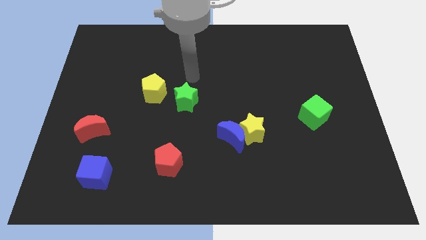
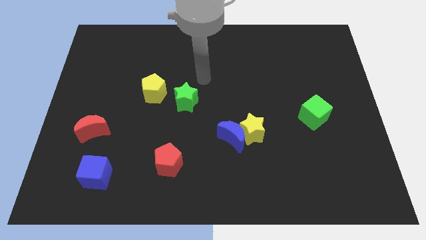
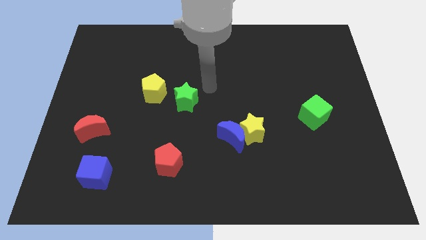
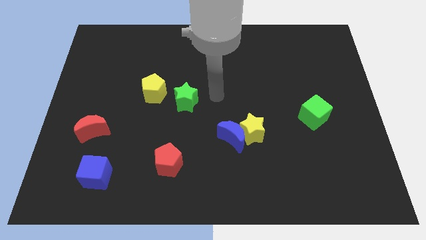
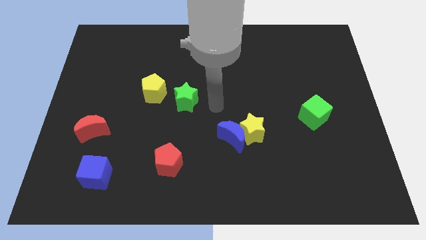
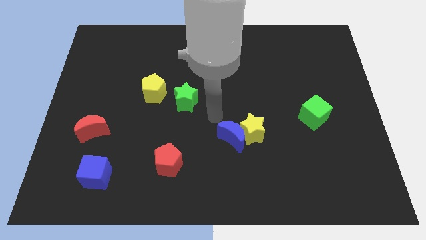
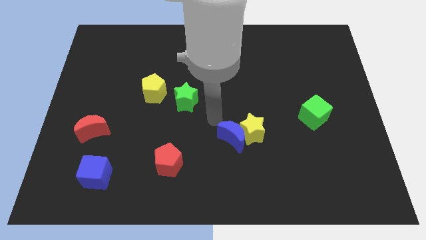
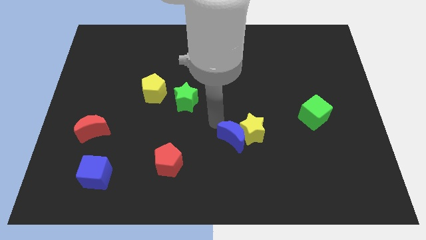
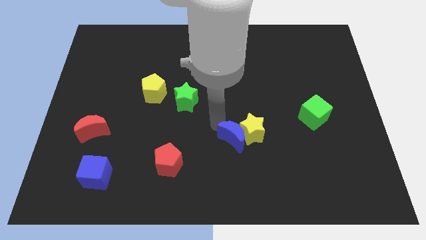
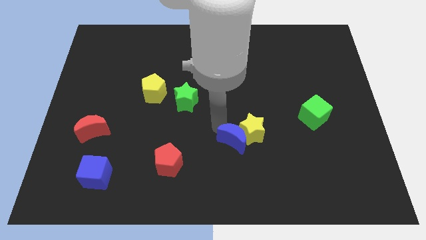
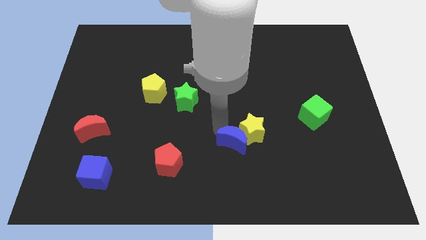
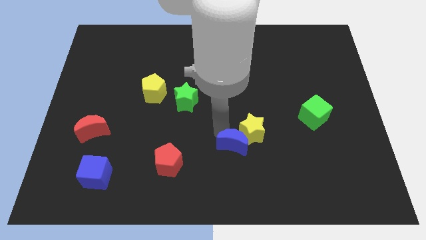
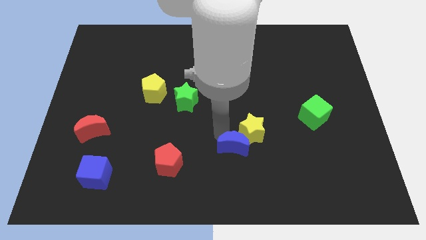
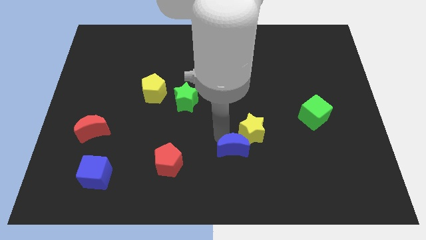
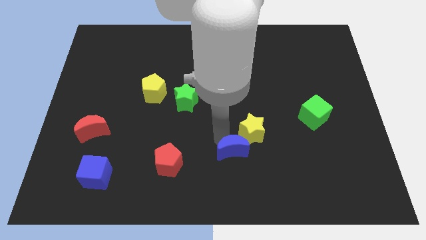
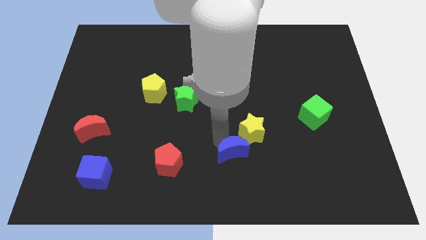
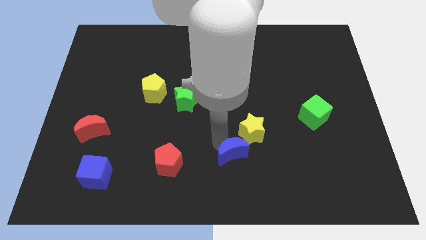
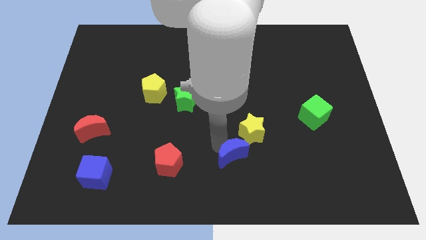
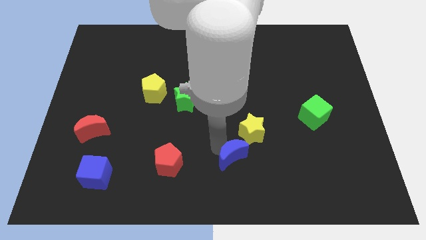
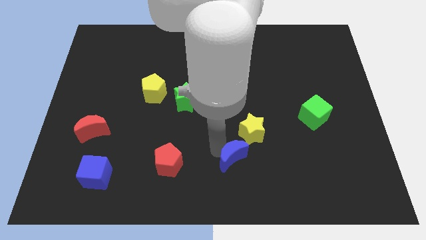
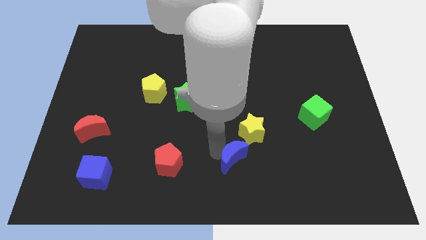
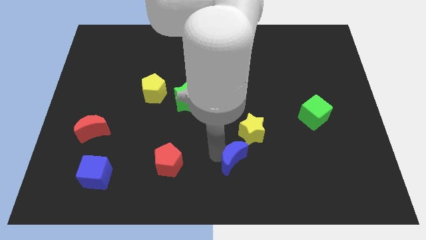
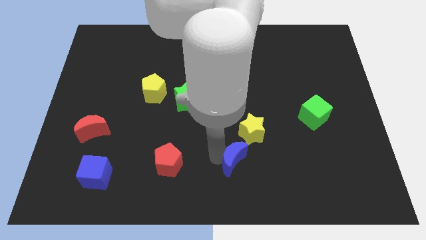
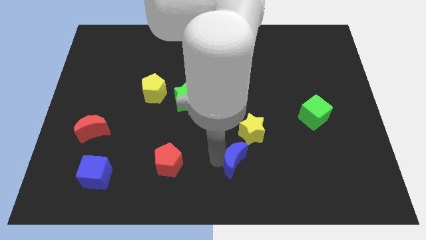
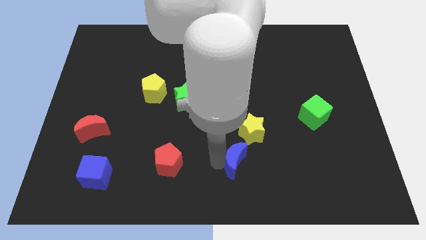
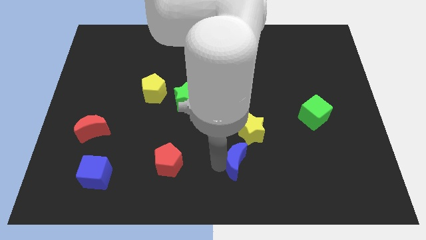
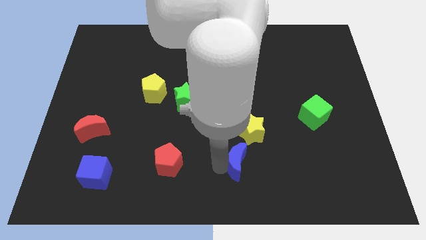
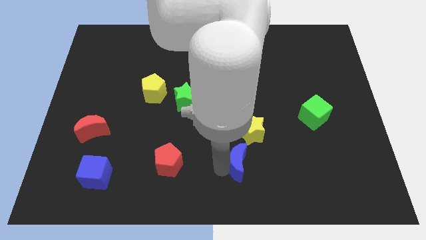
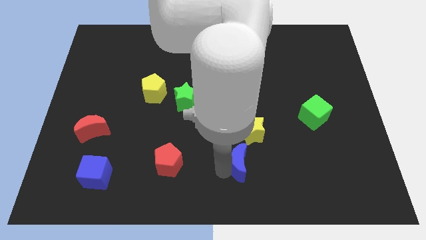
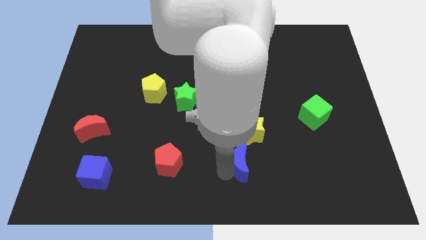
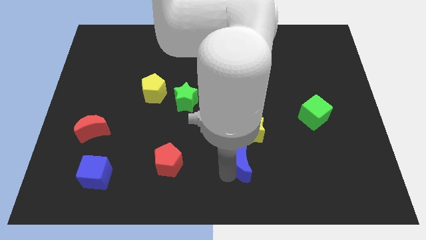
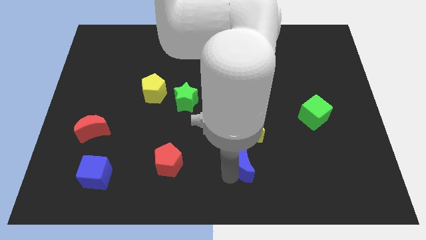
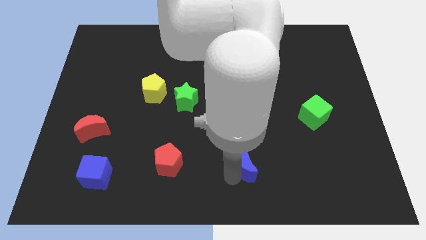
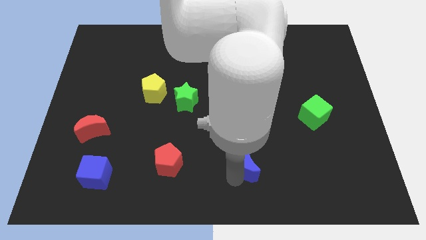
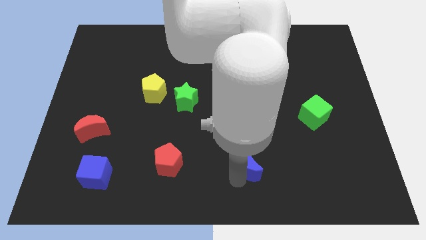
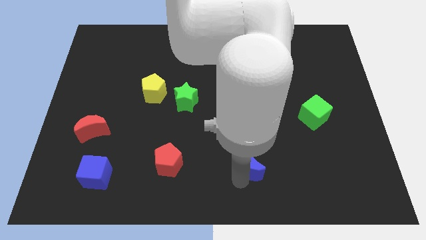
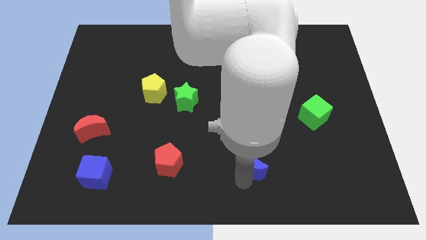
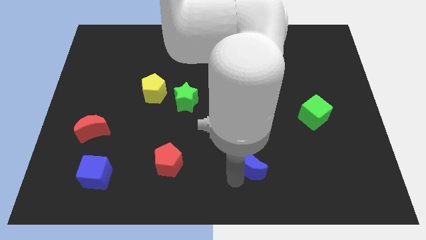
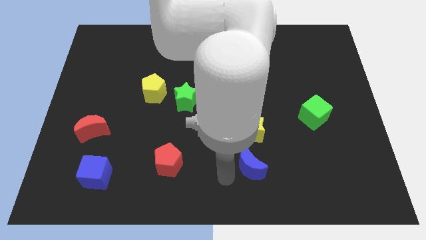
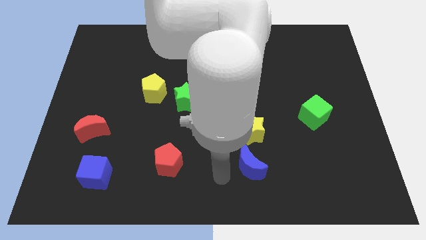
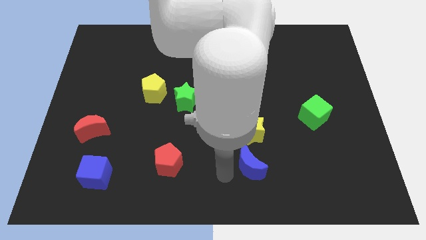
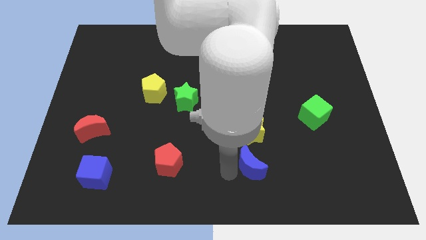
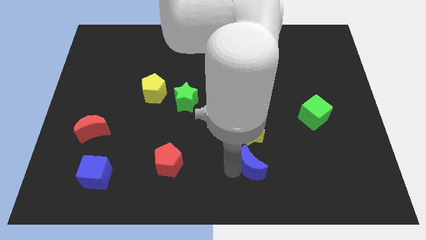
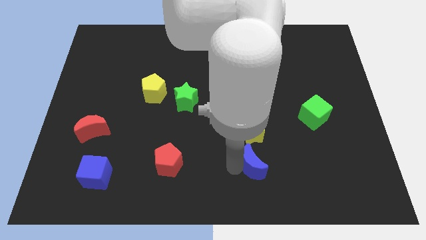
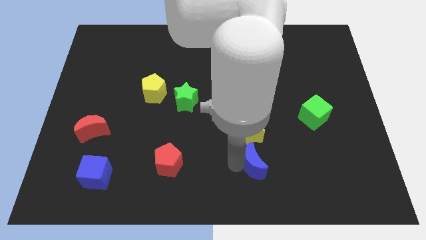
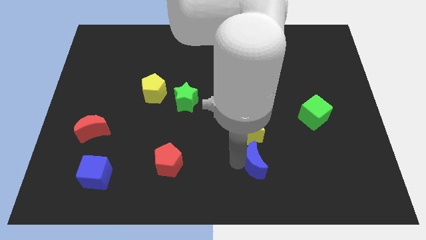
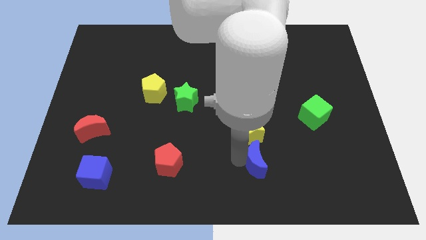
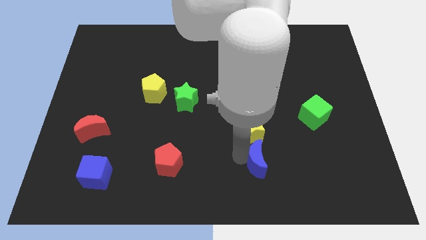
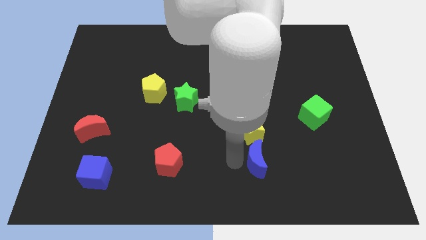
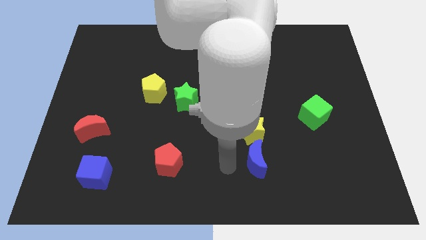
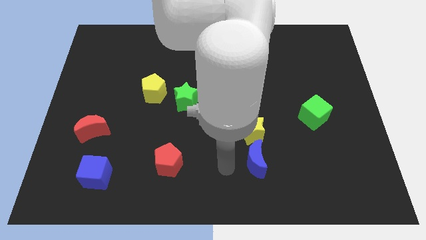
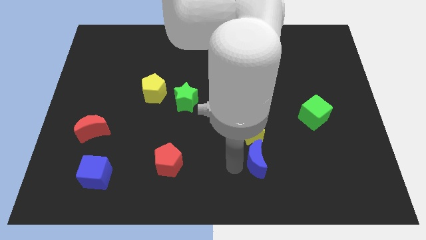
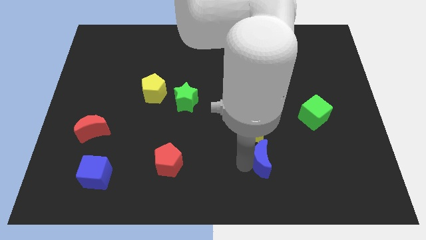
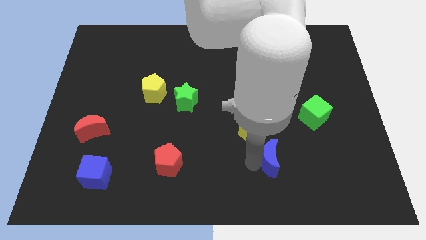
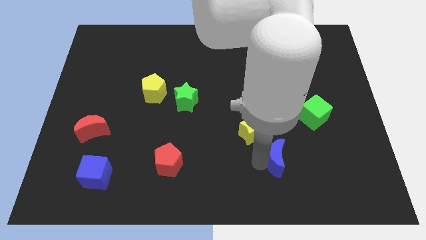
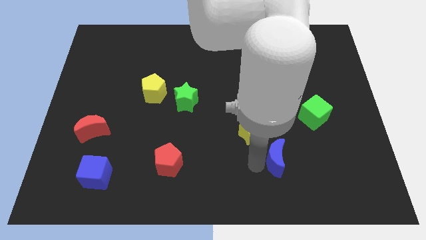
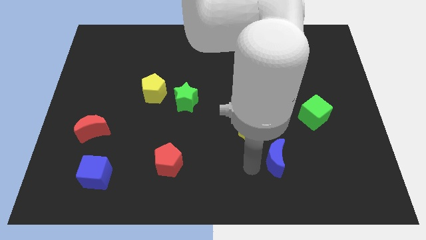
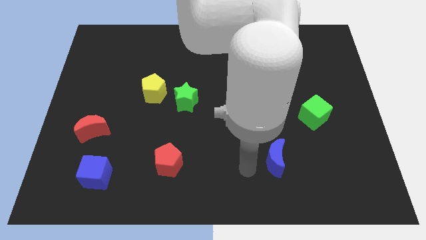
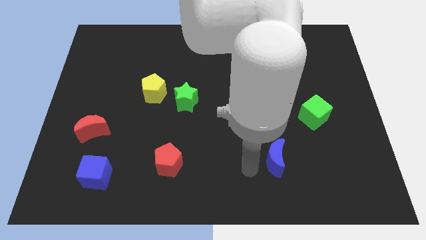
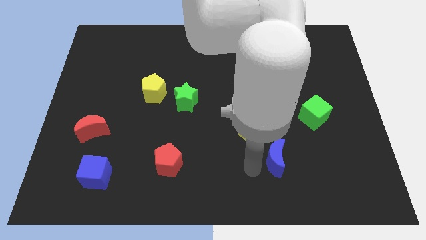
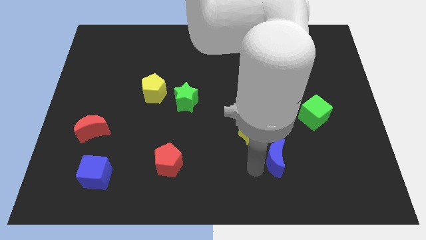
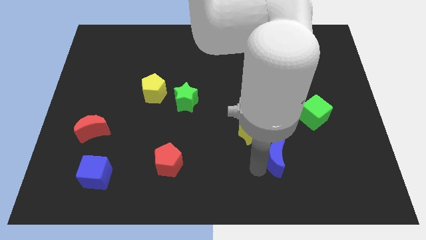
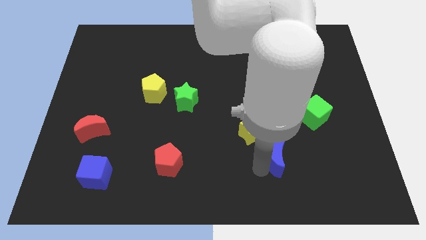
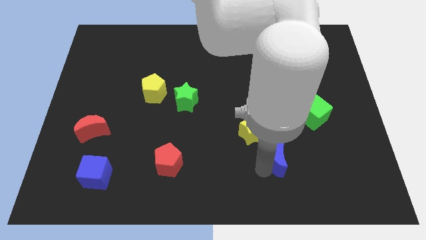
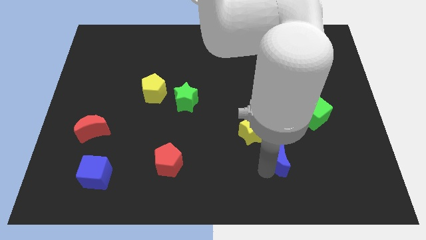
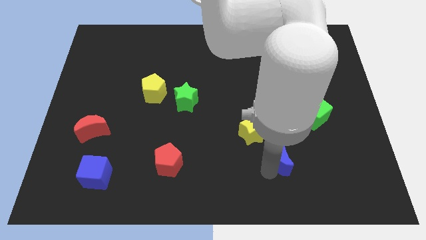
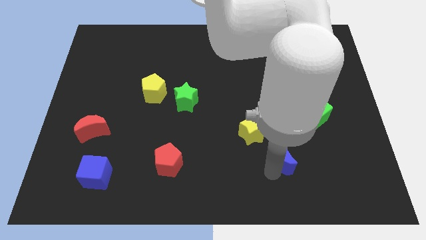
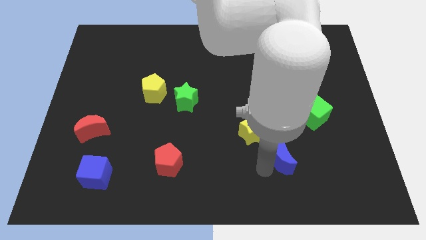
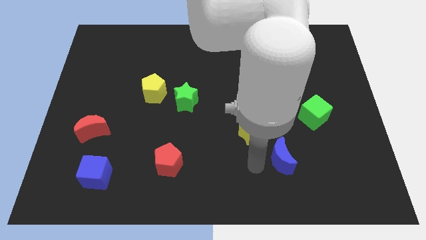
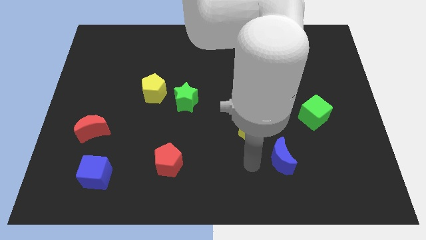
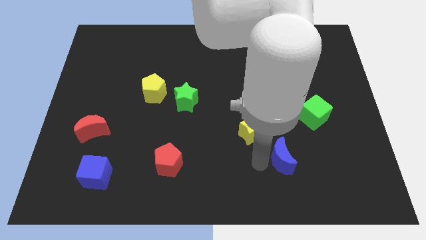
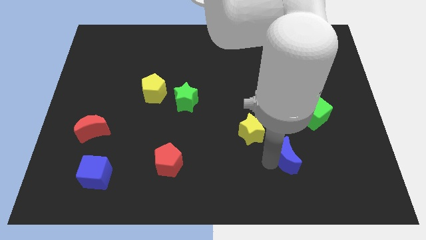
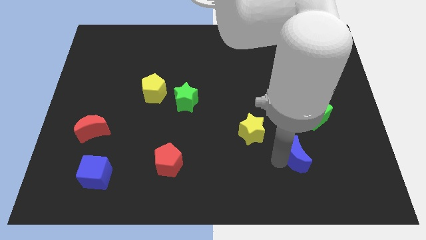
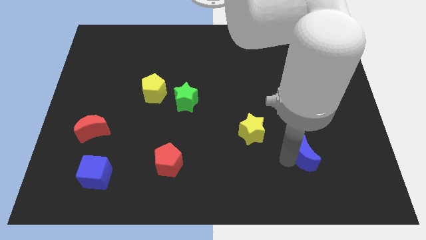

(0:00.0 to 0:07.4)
move the blue moon to the bottom side of the green cube
